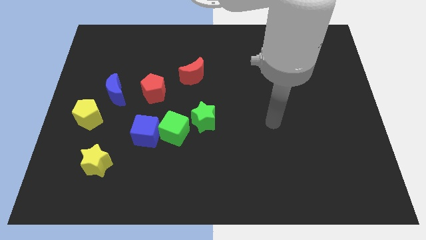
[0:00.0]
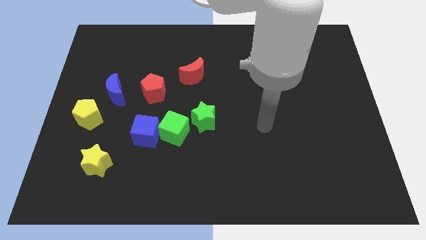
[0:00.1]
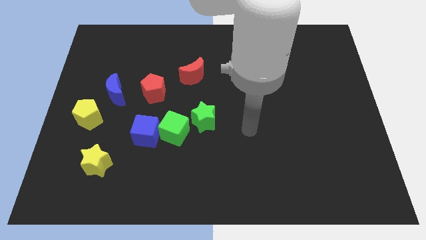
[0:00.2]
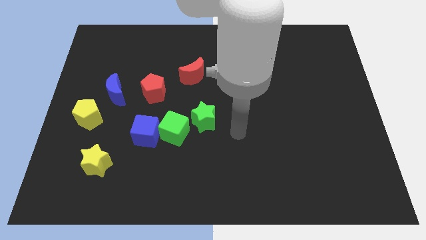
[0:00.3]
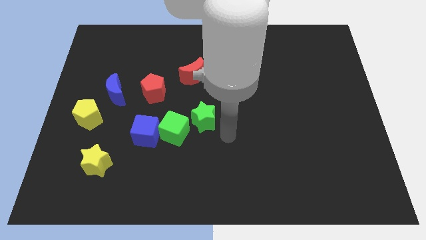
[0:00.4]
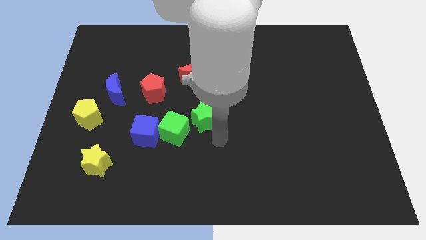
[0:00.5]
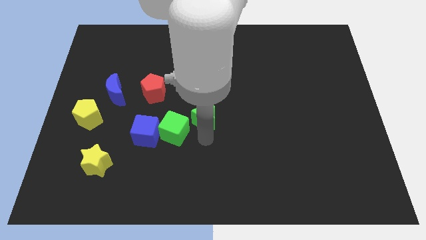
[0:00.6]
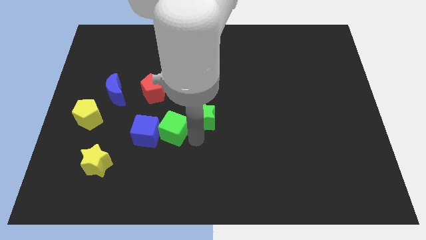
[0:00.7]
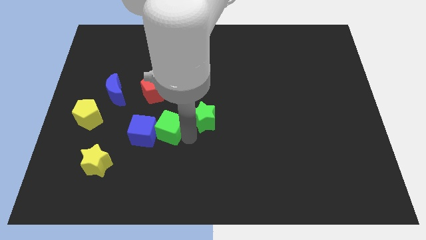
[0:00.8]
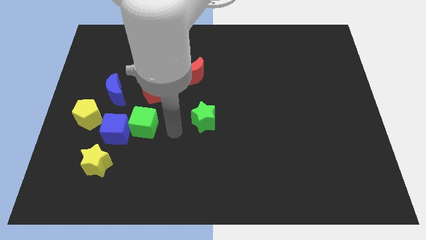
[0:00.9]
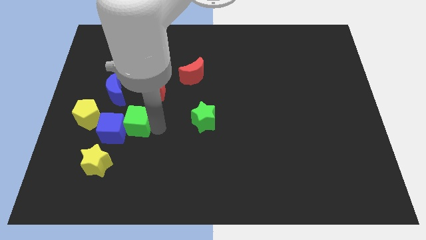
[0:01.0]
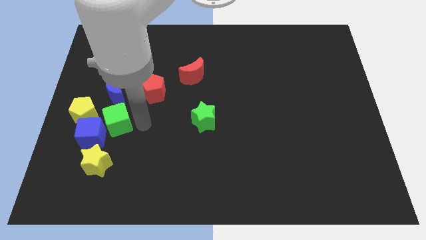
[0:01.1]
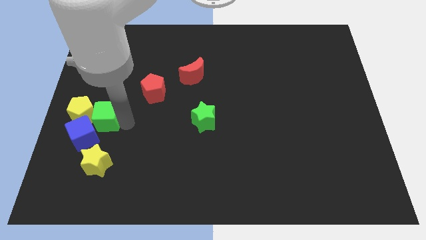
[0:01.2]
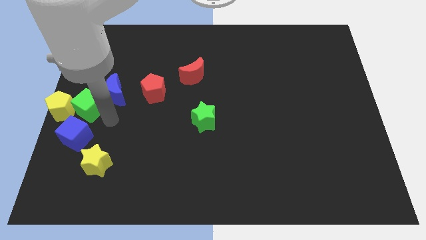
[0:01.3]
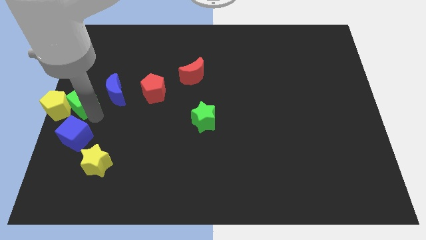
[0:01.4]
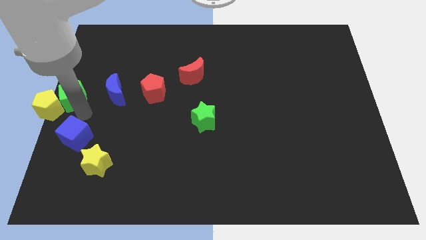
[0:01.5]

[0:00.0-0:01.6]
separate the blue cube from the green cube

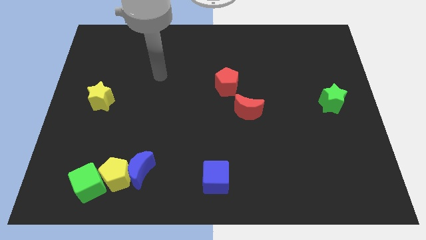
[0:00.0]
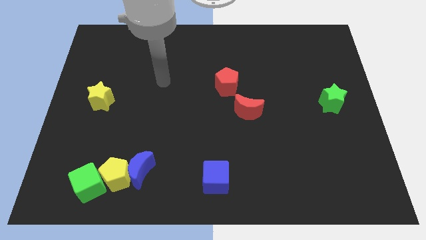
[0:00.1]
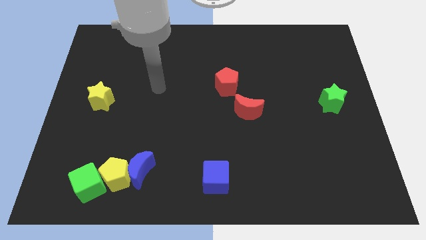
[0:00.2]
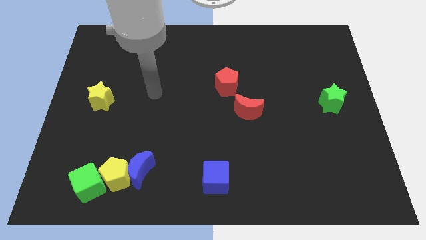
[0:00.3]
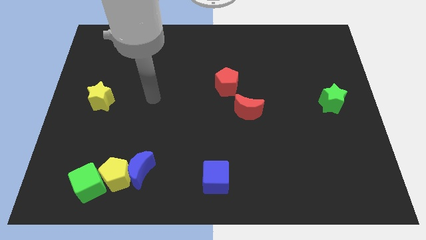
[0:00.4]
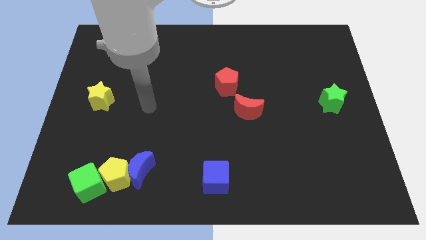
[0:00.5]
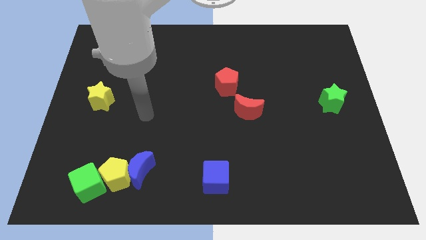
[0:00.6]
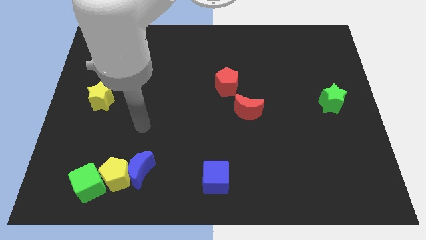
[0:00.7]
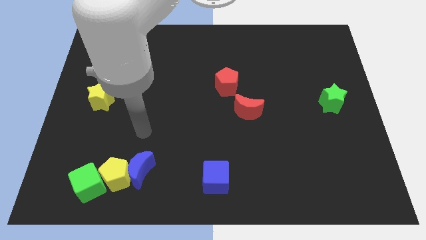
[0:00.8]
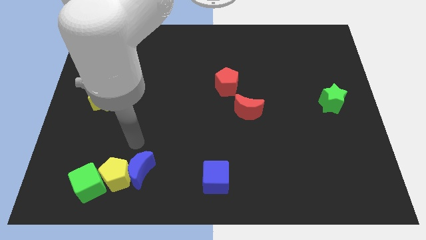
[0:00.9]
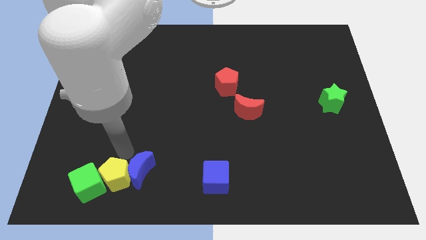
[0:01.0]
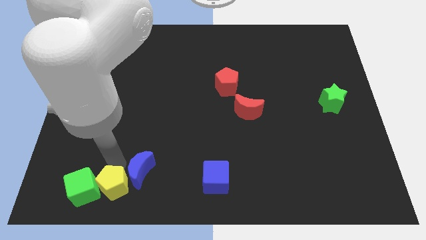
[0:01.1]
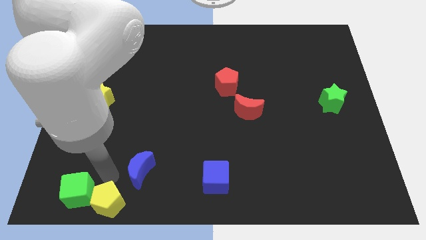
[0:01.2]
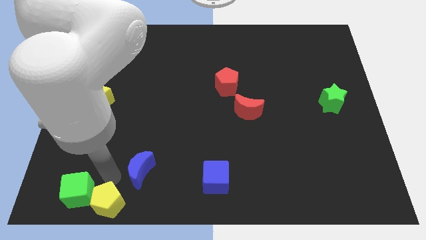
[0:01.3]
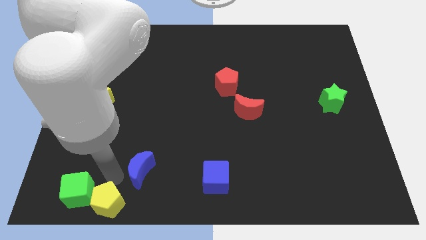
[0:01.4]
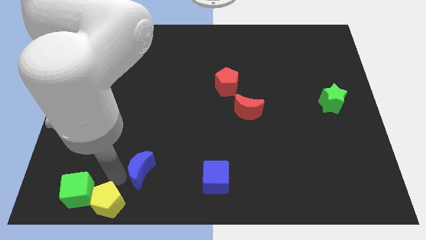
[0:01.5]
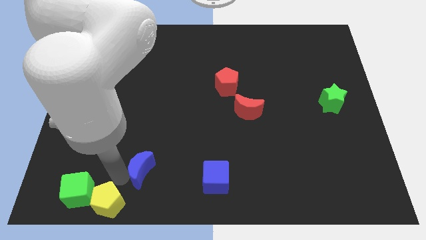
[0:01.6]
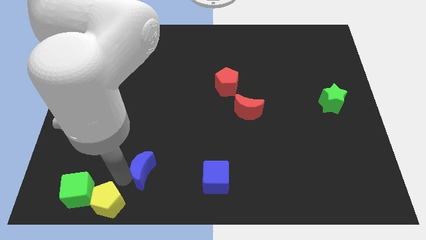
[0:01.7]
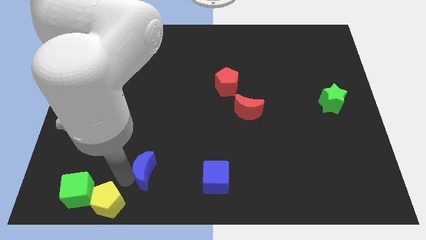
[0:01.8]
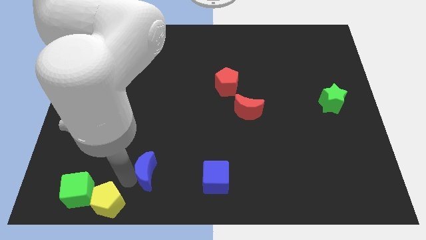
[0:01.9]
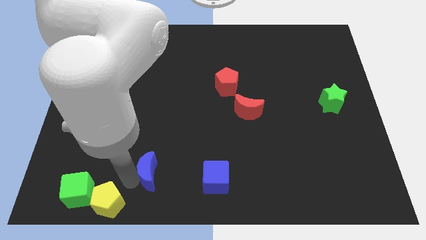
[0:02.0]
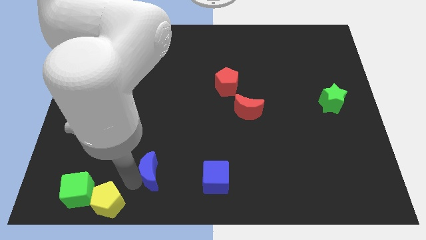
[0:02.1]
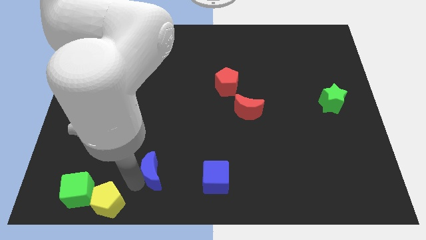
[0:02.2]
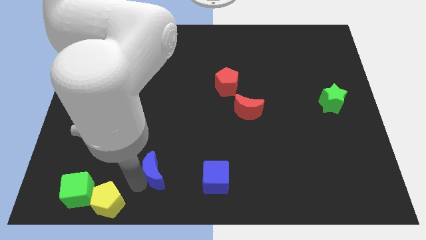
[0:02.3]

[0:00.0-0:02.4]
separate the blue moon from the yellow pentagon

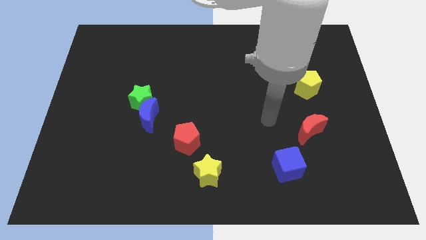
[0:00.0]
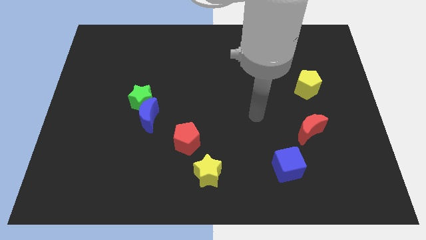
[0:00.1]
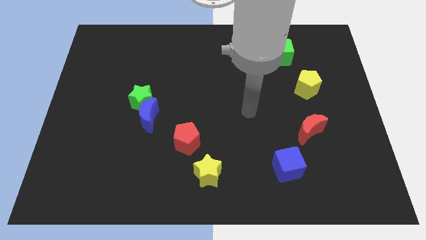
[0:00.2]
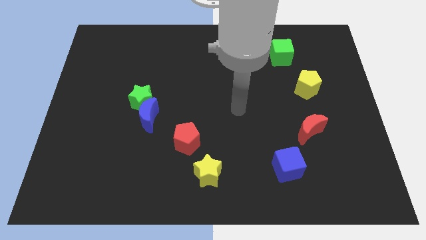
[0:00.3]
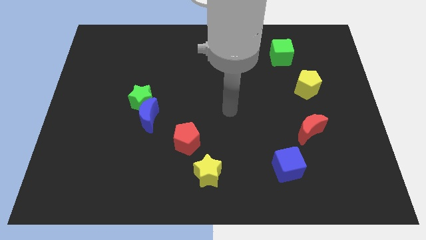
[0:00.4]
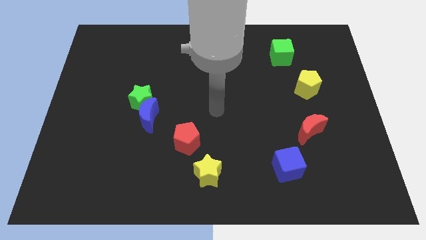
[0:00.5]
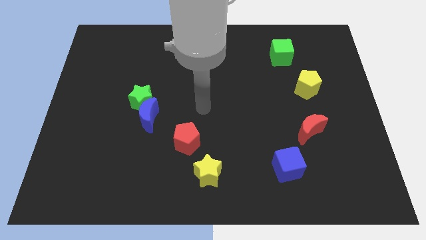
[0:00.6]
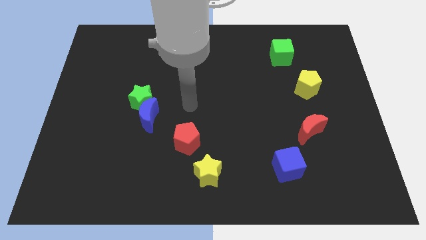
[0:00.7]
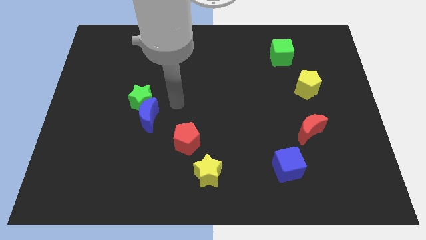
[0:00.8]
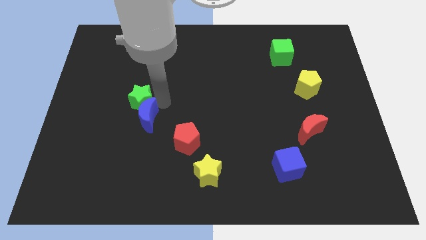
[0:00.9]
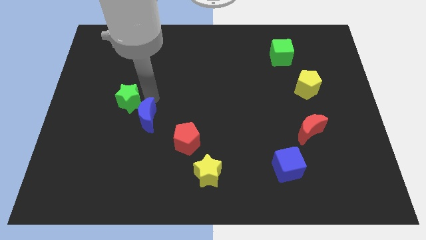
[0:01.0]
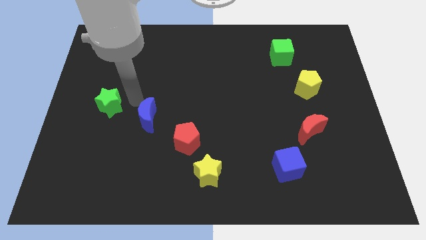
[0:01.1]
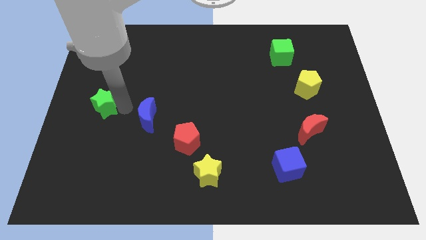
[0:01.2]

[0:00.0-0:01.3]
move the blue moon away from the green star

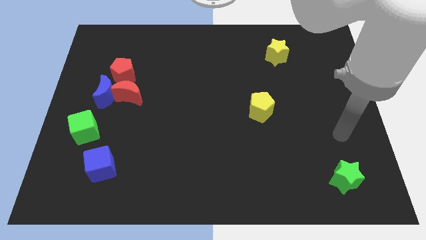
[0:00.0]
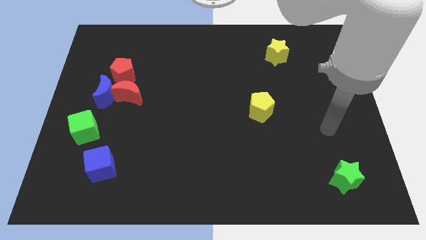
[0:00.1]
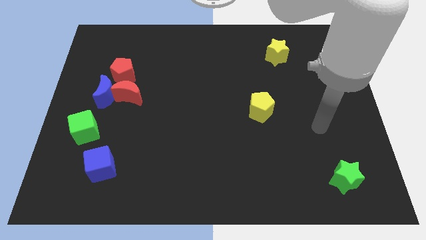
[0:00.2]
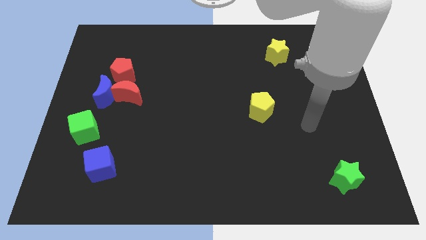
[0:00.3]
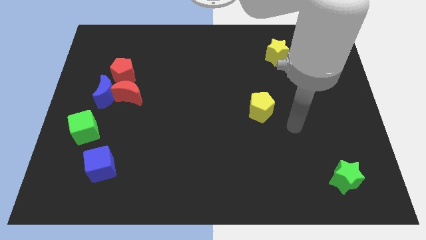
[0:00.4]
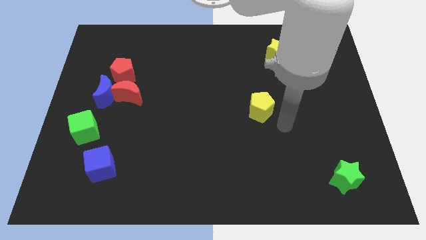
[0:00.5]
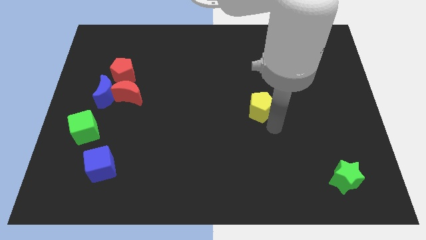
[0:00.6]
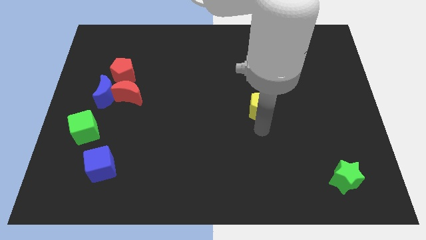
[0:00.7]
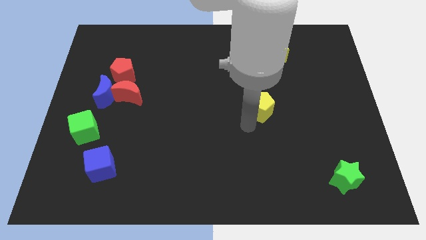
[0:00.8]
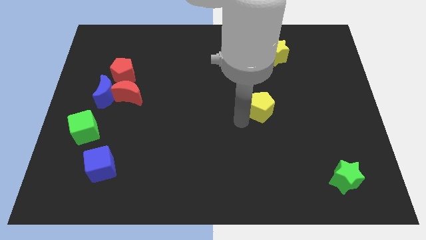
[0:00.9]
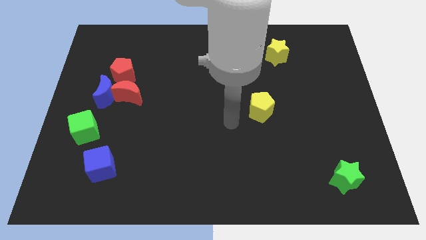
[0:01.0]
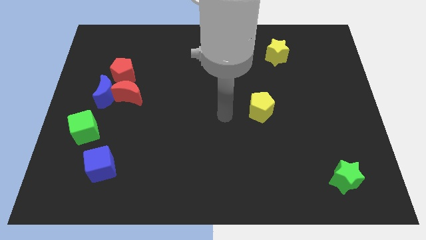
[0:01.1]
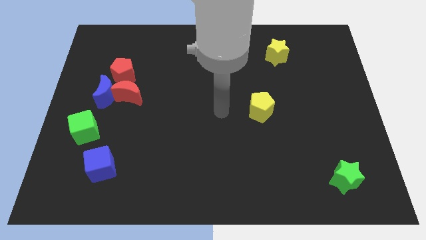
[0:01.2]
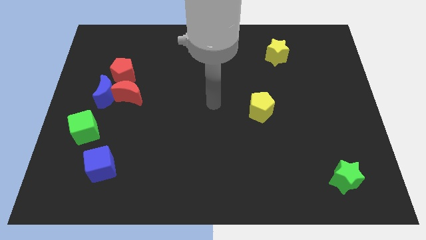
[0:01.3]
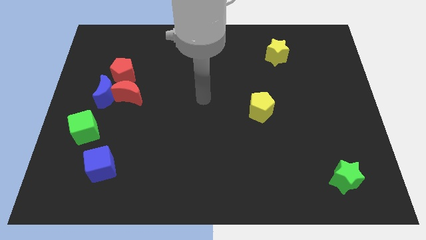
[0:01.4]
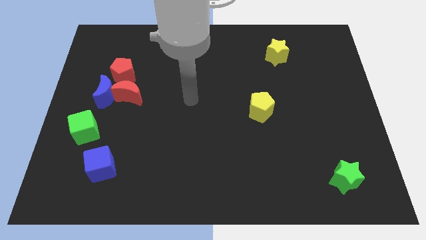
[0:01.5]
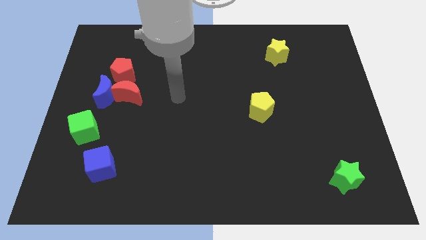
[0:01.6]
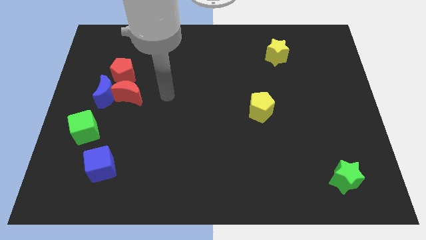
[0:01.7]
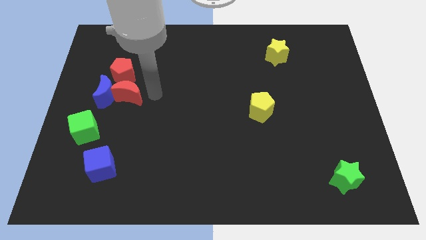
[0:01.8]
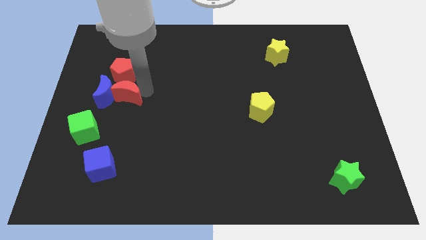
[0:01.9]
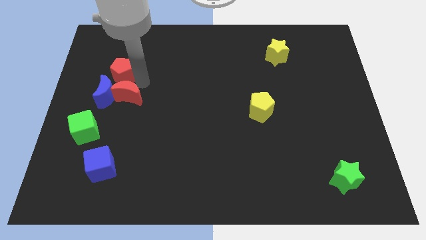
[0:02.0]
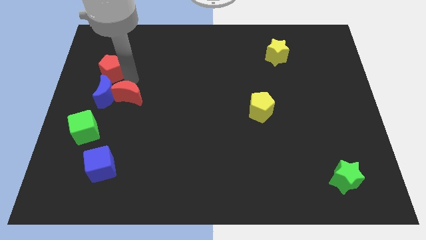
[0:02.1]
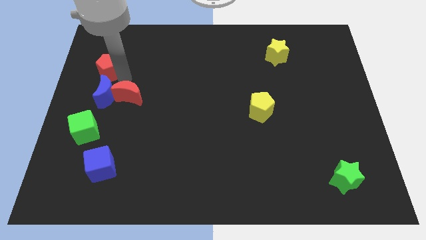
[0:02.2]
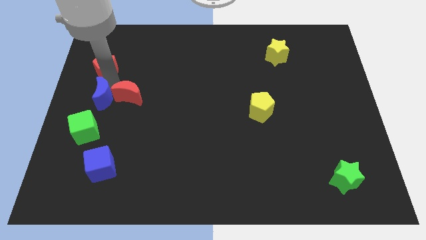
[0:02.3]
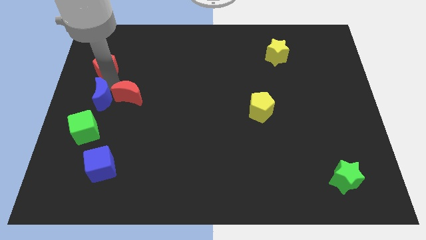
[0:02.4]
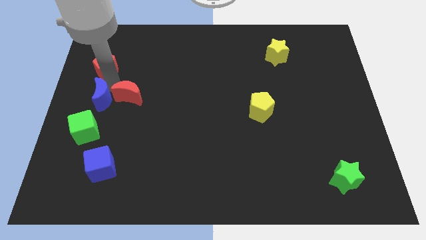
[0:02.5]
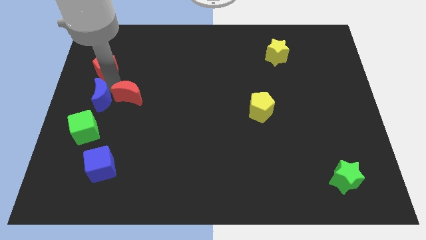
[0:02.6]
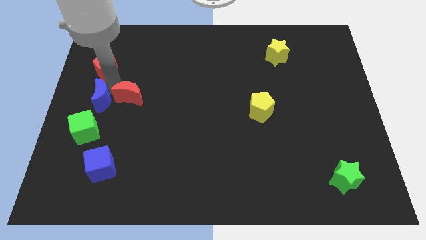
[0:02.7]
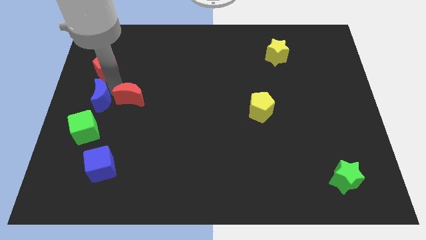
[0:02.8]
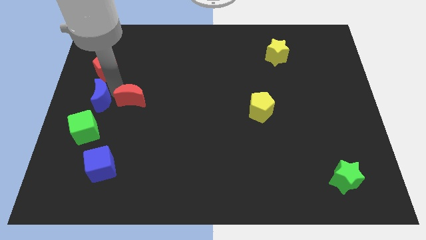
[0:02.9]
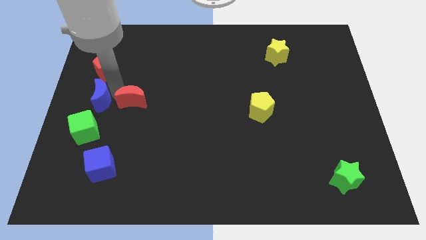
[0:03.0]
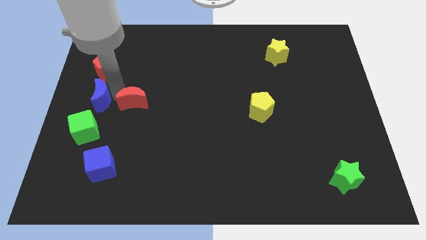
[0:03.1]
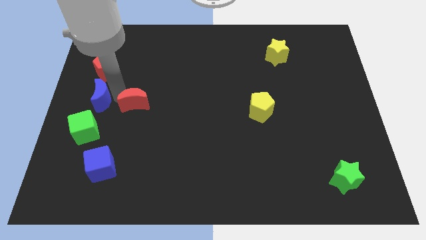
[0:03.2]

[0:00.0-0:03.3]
separate the red moon from the blue moon and red pentagon

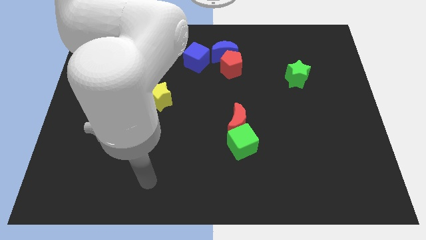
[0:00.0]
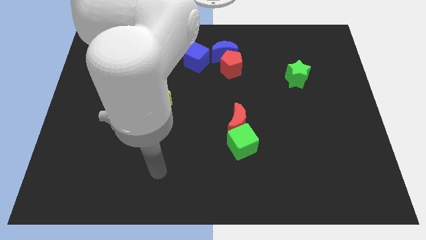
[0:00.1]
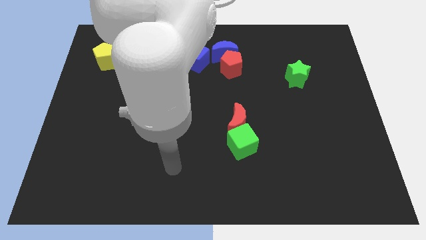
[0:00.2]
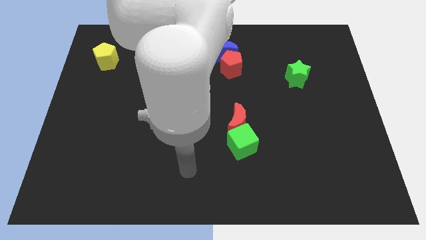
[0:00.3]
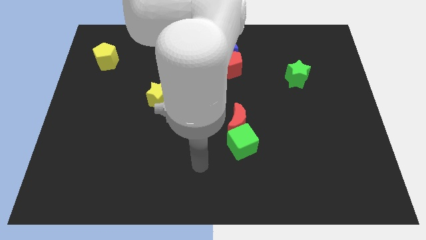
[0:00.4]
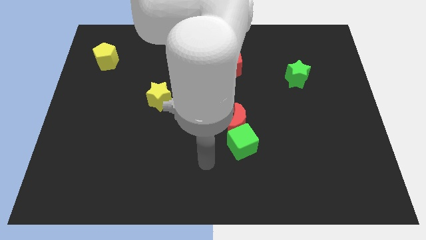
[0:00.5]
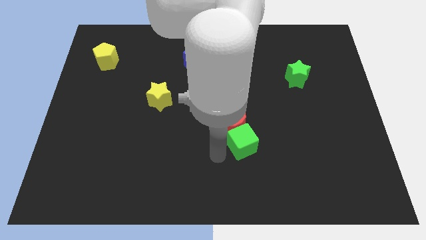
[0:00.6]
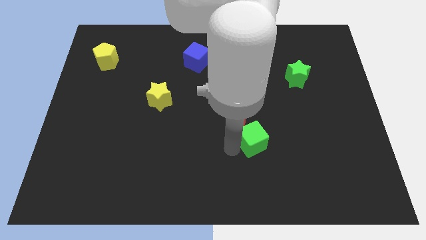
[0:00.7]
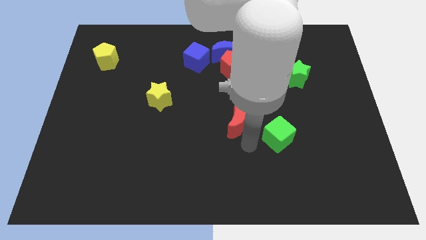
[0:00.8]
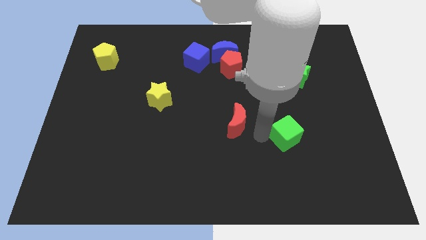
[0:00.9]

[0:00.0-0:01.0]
pull the red moon apart from the green cube
